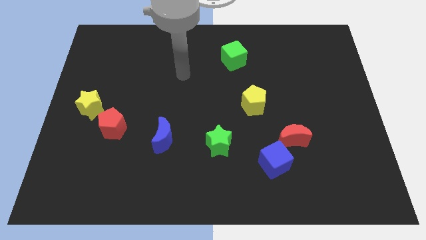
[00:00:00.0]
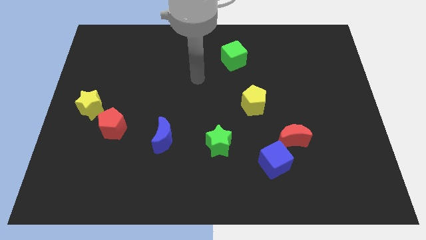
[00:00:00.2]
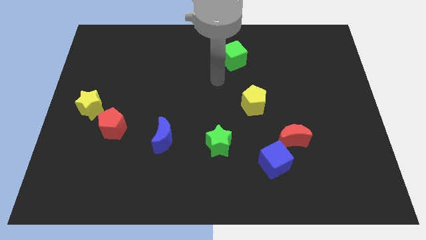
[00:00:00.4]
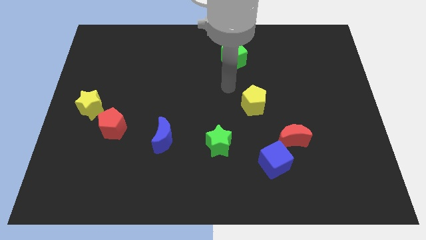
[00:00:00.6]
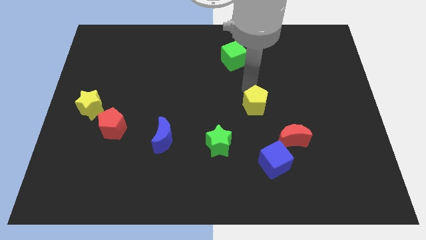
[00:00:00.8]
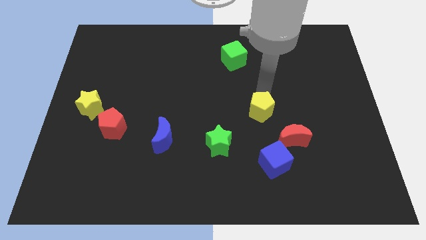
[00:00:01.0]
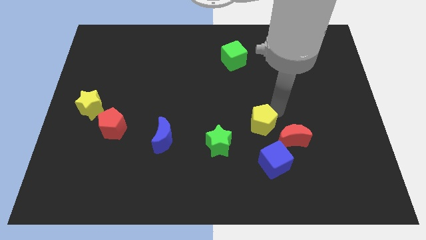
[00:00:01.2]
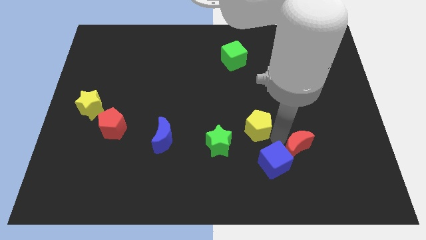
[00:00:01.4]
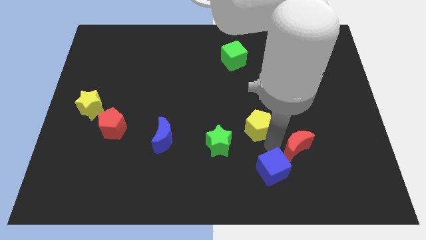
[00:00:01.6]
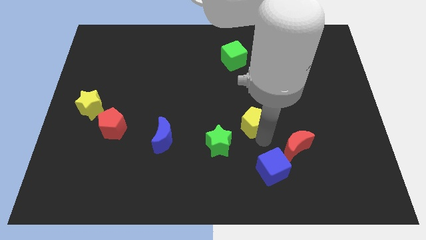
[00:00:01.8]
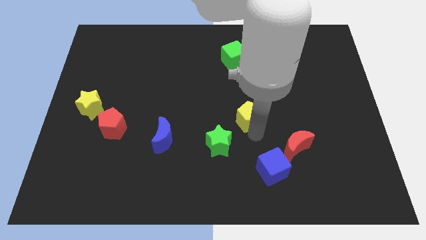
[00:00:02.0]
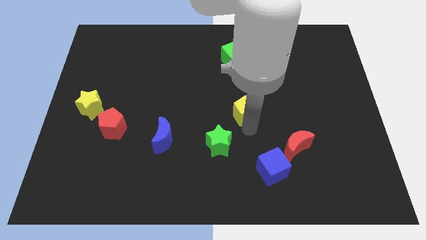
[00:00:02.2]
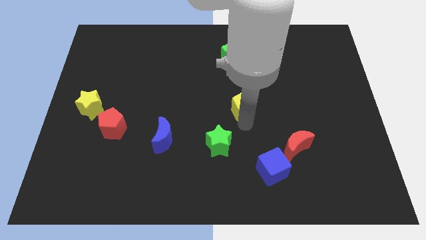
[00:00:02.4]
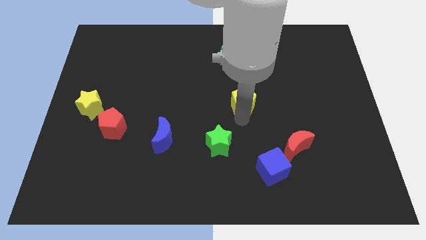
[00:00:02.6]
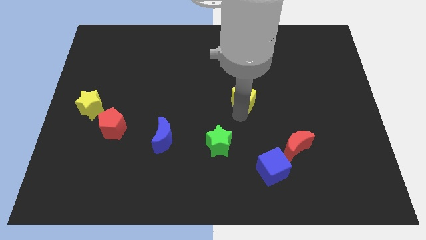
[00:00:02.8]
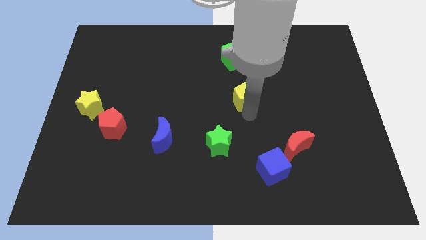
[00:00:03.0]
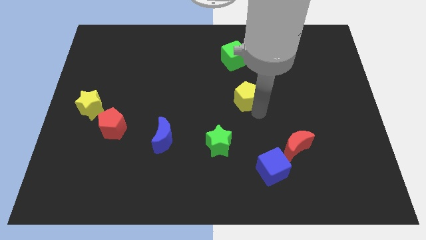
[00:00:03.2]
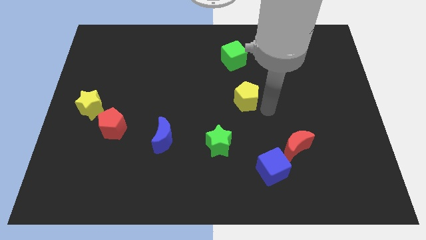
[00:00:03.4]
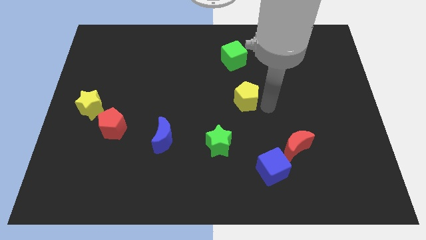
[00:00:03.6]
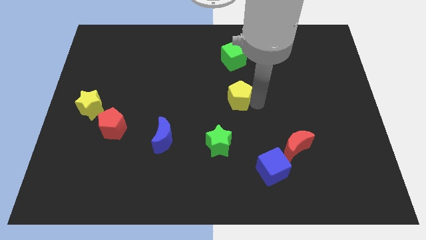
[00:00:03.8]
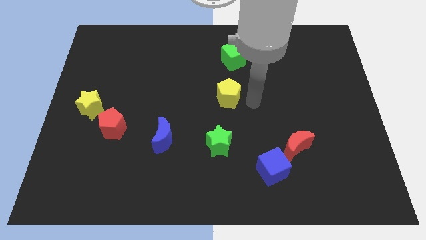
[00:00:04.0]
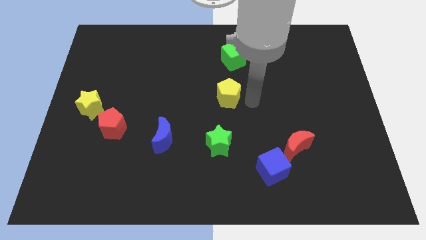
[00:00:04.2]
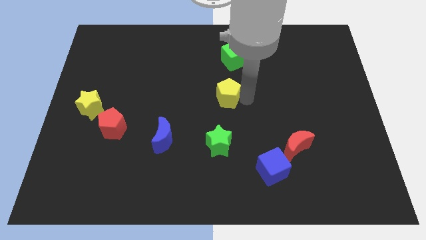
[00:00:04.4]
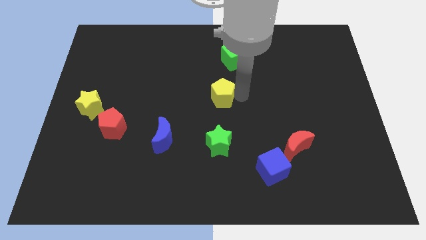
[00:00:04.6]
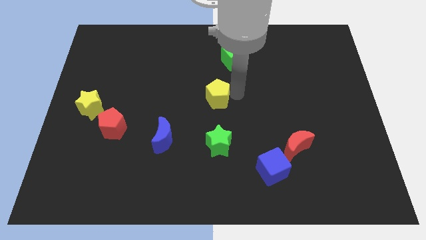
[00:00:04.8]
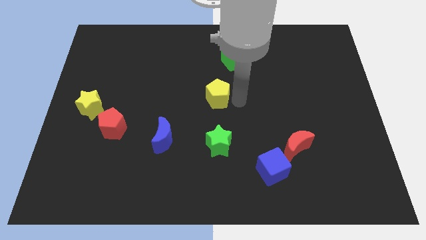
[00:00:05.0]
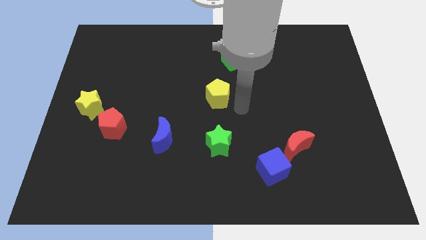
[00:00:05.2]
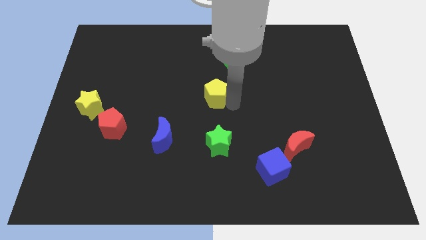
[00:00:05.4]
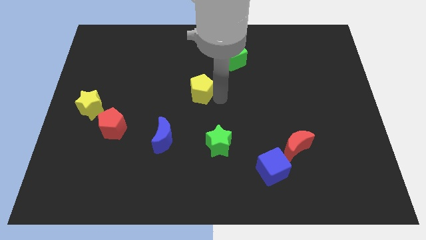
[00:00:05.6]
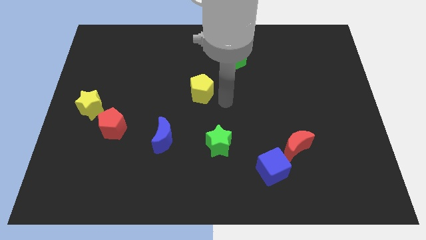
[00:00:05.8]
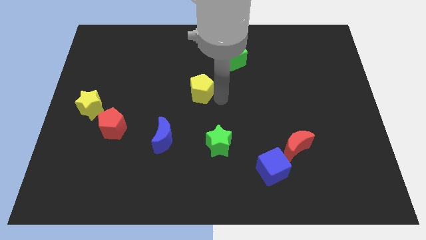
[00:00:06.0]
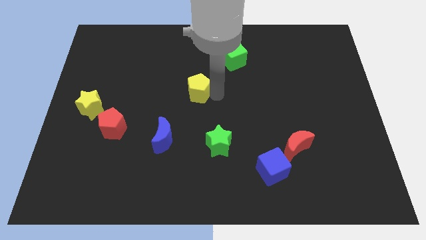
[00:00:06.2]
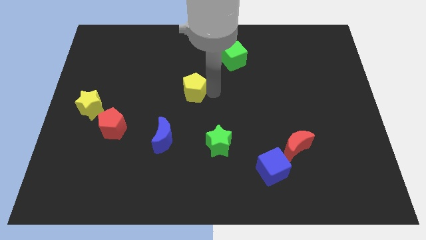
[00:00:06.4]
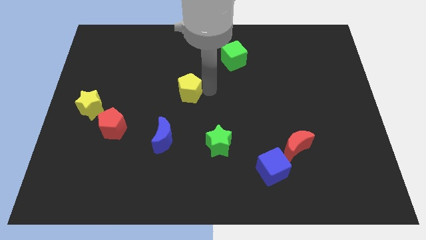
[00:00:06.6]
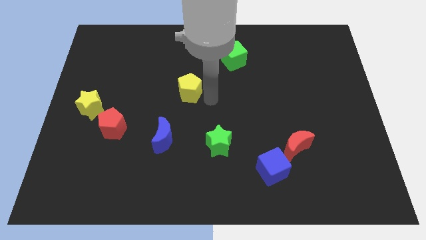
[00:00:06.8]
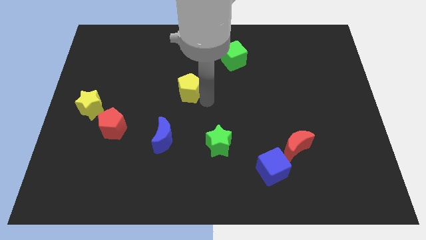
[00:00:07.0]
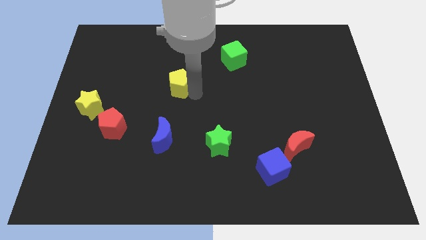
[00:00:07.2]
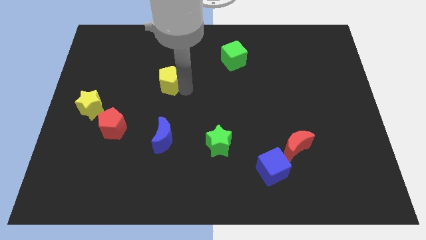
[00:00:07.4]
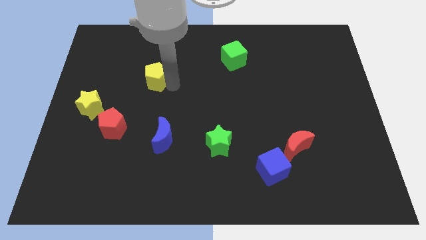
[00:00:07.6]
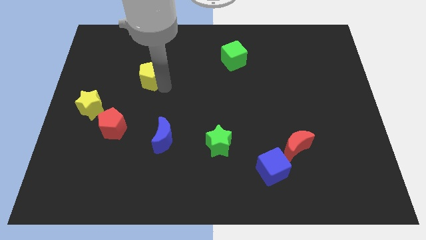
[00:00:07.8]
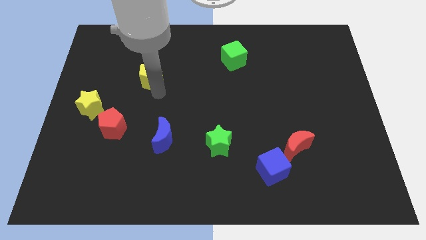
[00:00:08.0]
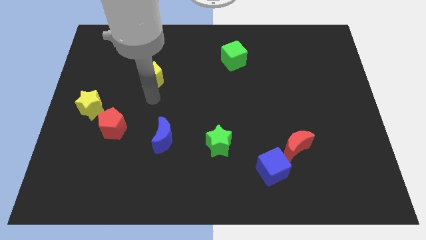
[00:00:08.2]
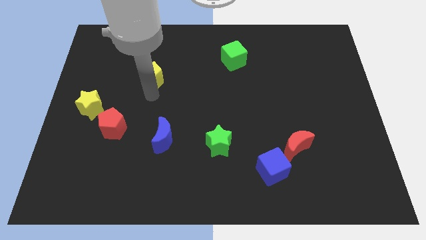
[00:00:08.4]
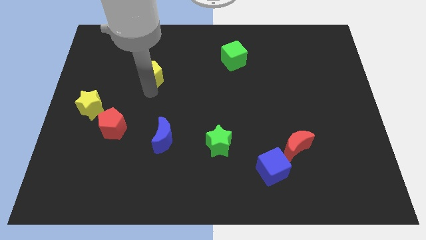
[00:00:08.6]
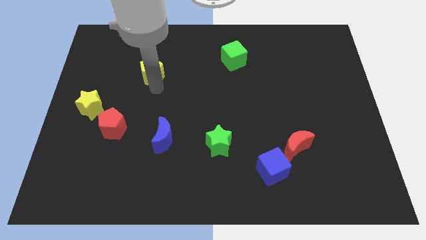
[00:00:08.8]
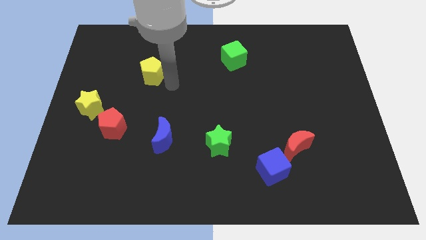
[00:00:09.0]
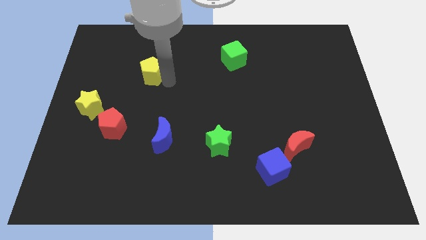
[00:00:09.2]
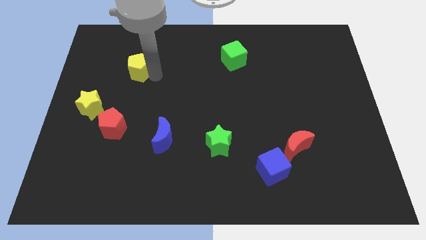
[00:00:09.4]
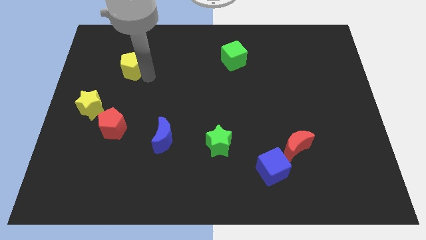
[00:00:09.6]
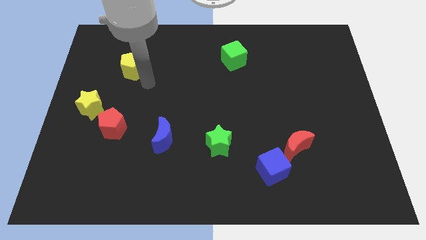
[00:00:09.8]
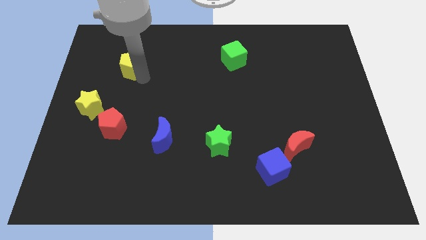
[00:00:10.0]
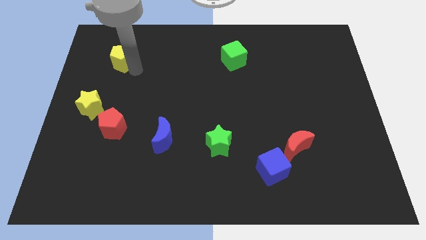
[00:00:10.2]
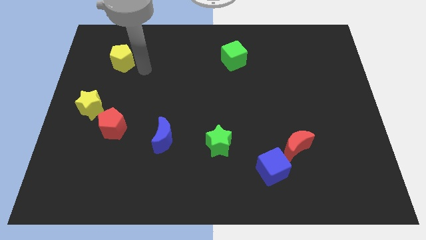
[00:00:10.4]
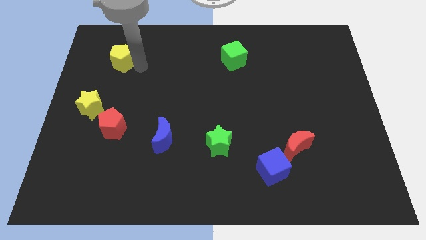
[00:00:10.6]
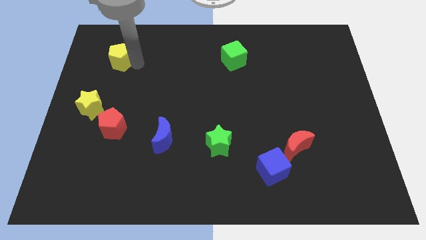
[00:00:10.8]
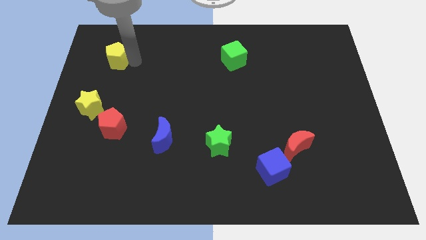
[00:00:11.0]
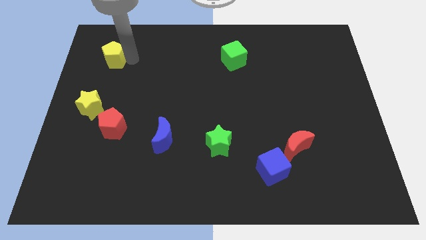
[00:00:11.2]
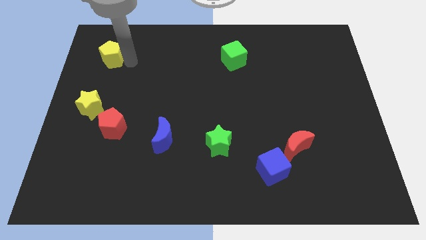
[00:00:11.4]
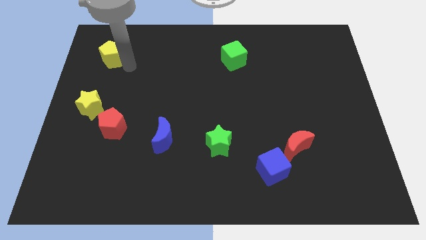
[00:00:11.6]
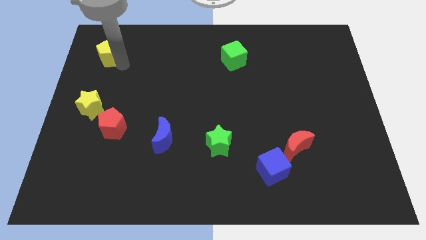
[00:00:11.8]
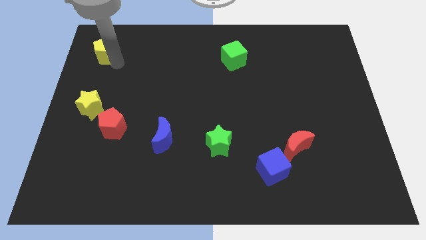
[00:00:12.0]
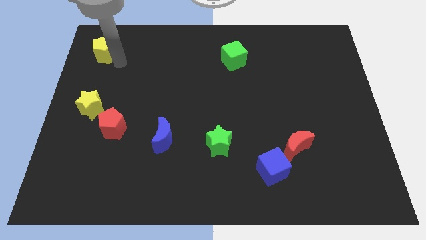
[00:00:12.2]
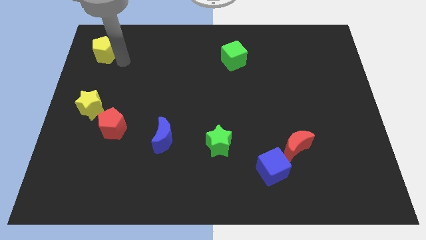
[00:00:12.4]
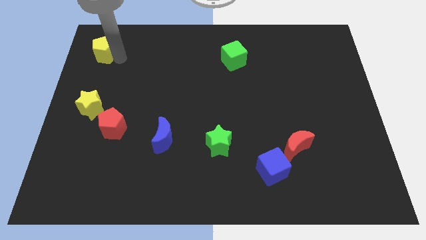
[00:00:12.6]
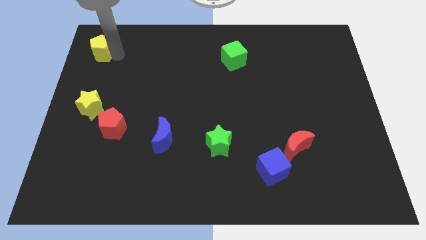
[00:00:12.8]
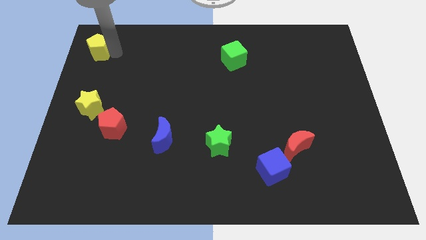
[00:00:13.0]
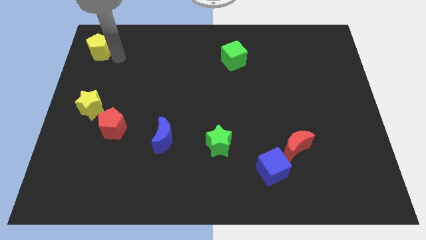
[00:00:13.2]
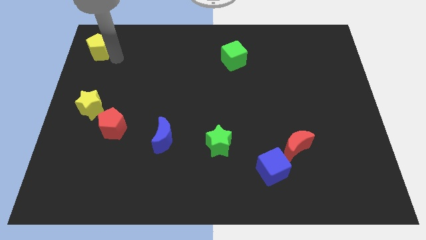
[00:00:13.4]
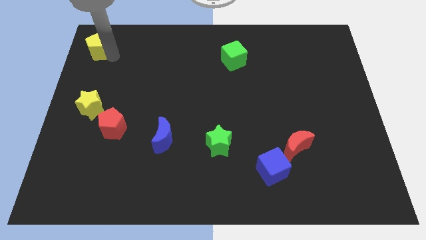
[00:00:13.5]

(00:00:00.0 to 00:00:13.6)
move the yellow pentagon to the top left corner
